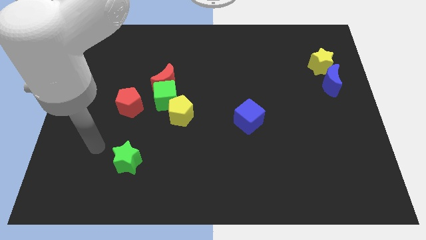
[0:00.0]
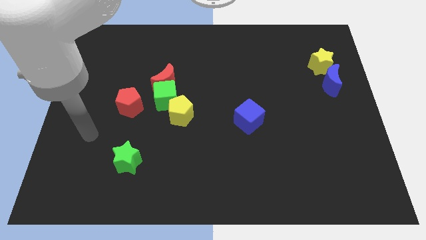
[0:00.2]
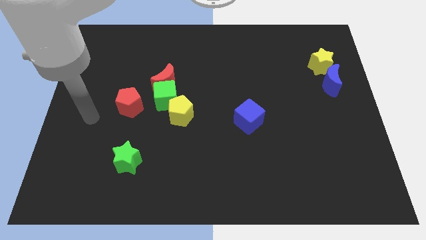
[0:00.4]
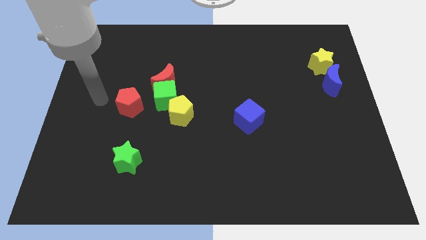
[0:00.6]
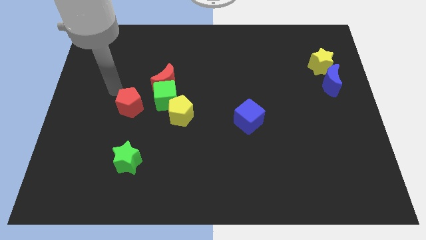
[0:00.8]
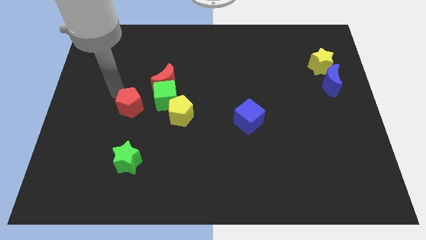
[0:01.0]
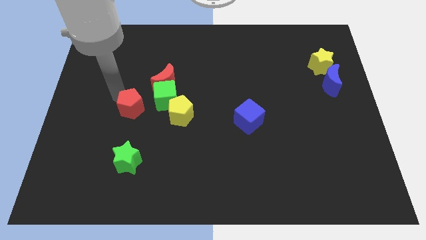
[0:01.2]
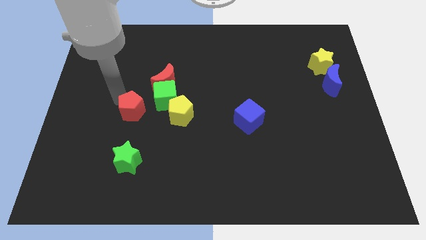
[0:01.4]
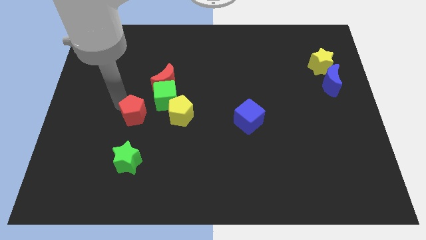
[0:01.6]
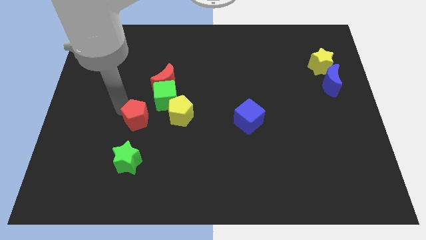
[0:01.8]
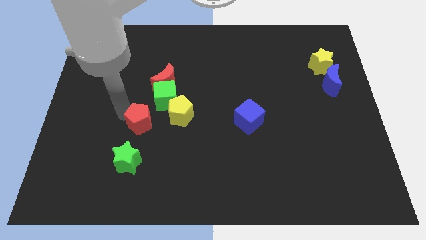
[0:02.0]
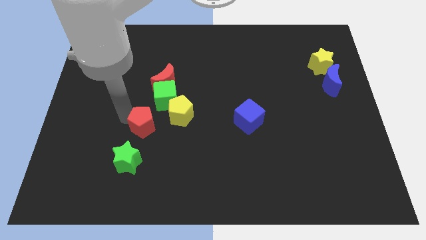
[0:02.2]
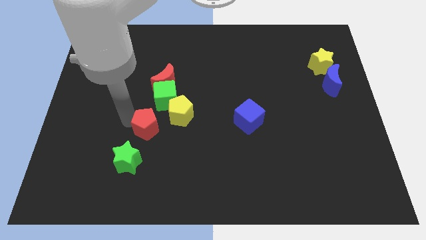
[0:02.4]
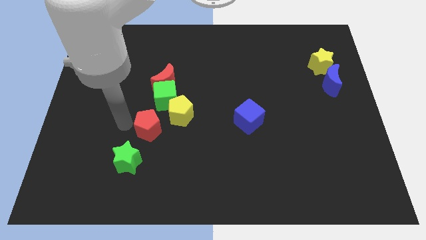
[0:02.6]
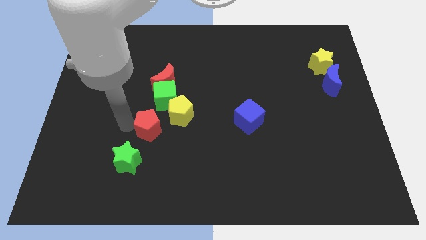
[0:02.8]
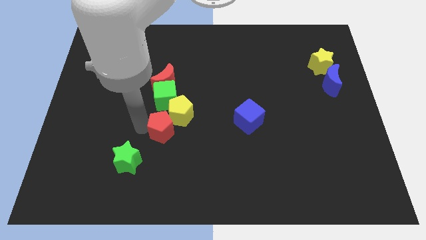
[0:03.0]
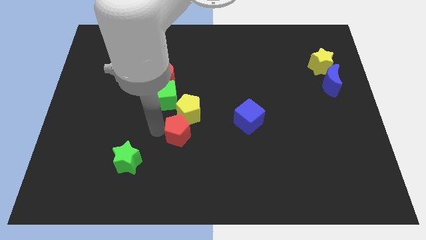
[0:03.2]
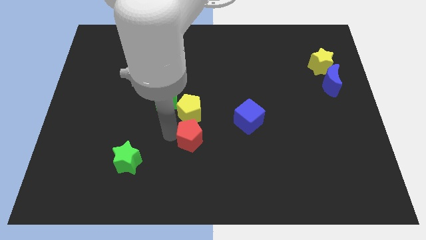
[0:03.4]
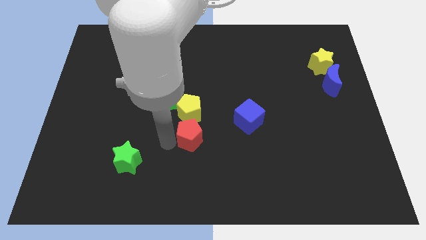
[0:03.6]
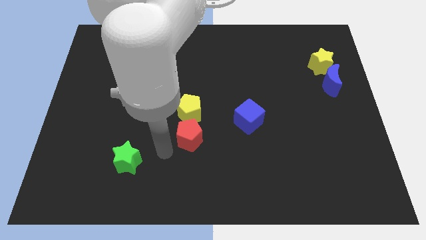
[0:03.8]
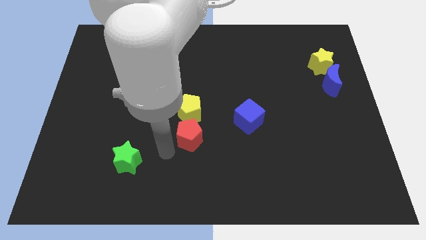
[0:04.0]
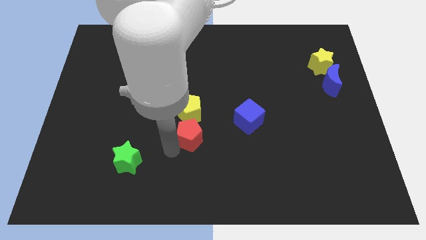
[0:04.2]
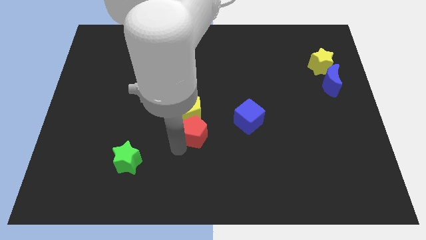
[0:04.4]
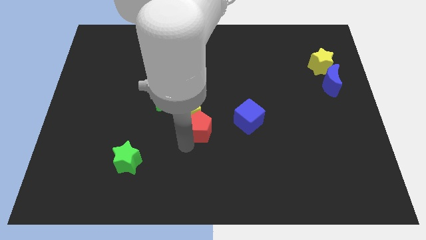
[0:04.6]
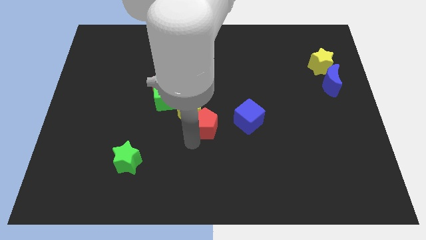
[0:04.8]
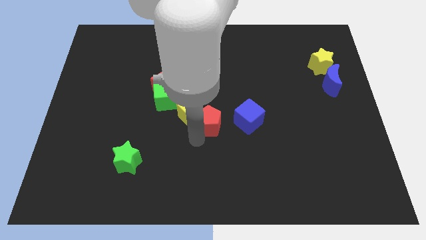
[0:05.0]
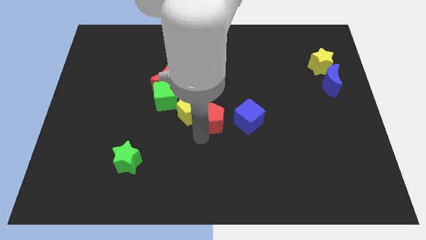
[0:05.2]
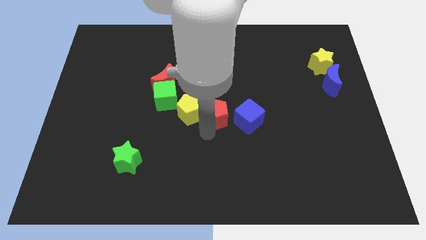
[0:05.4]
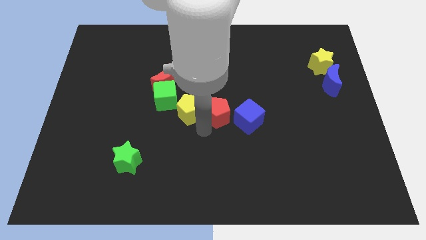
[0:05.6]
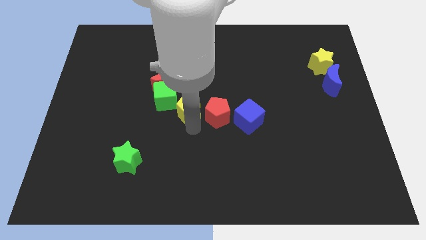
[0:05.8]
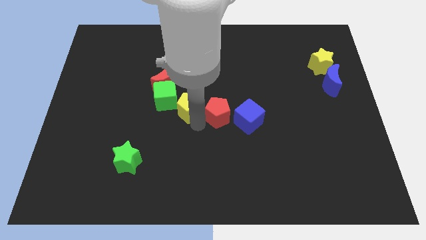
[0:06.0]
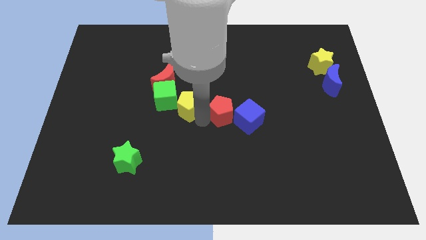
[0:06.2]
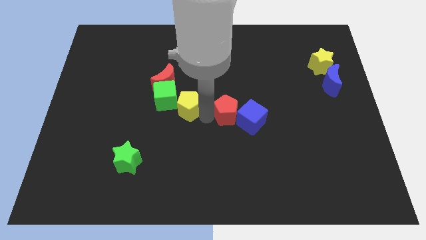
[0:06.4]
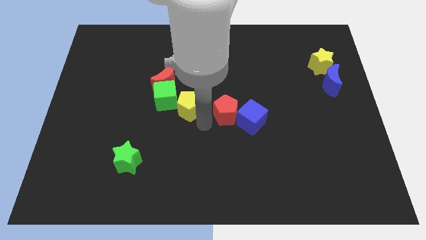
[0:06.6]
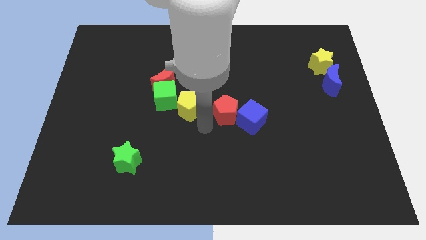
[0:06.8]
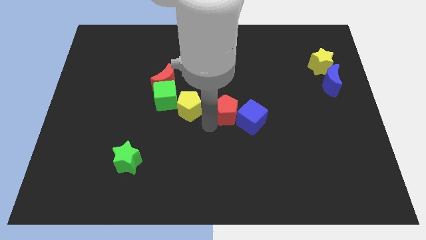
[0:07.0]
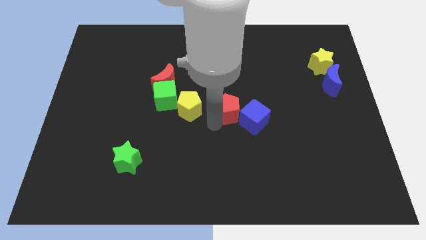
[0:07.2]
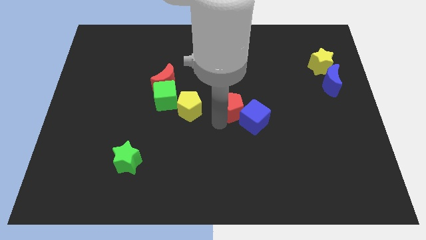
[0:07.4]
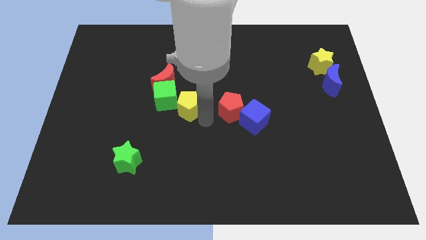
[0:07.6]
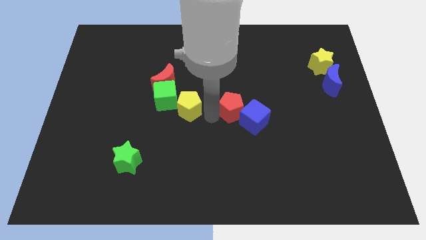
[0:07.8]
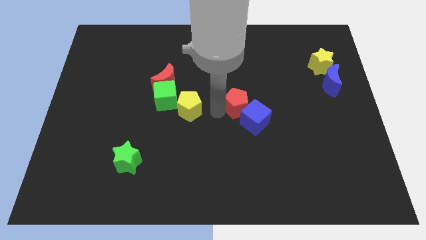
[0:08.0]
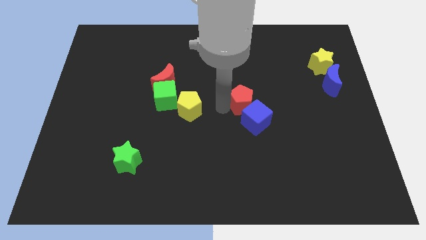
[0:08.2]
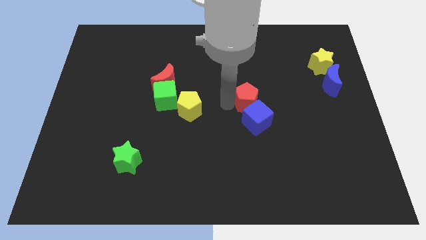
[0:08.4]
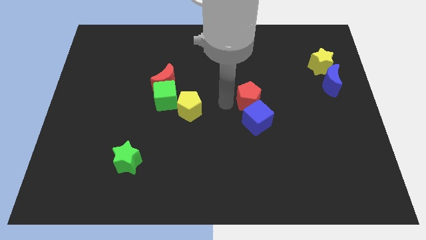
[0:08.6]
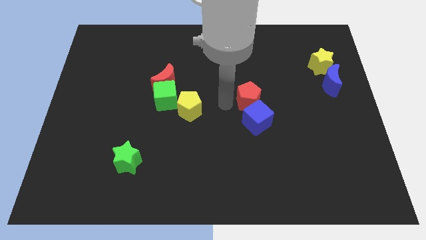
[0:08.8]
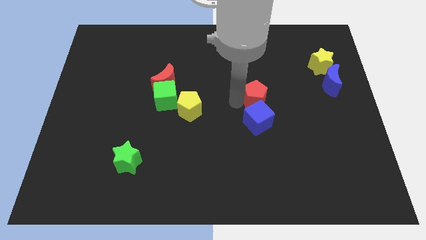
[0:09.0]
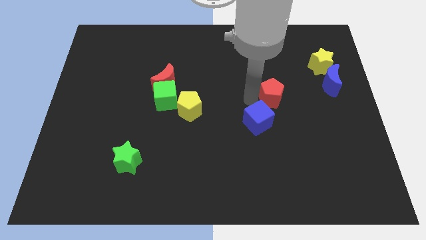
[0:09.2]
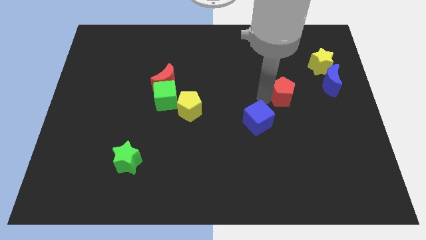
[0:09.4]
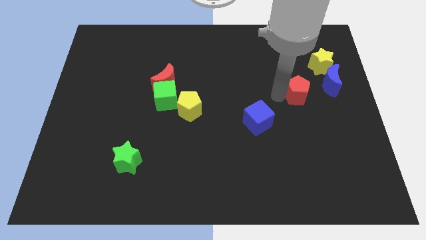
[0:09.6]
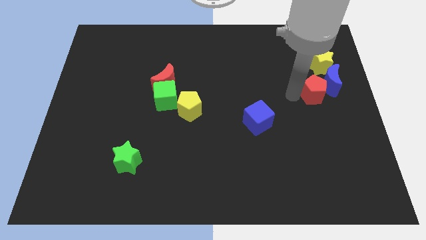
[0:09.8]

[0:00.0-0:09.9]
slide the red pentagon towards the blue moon

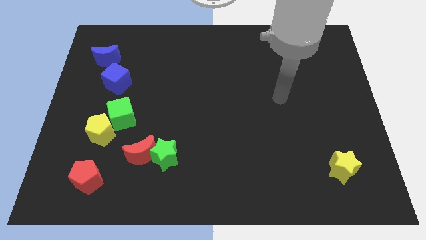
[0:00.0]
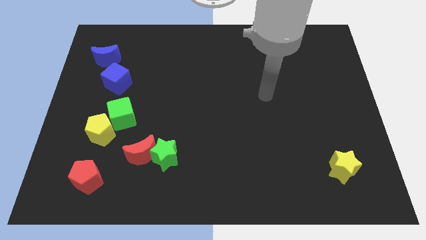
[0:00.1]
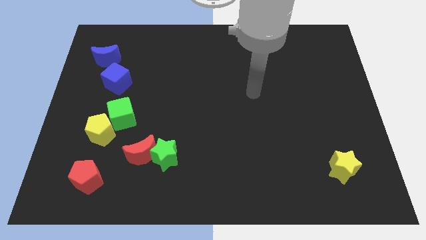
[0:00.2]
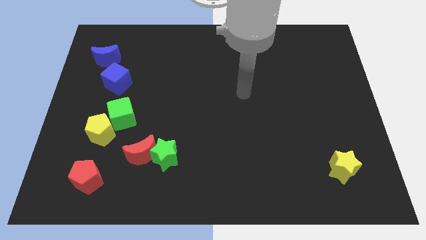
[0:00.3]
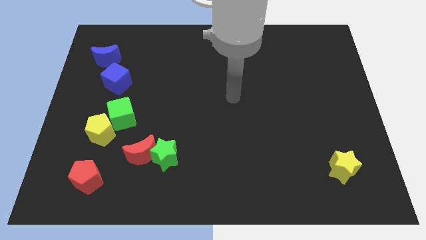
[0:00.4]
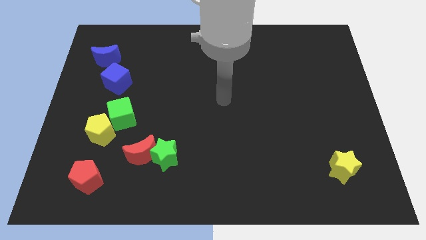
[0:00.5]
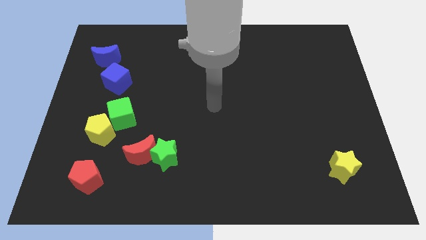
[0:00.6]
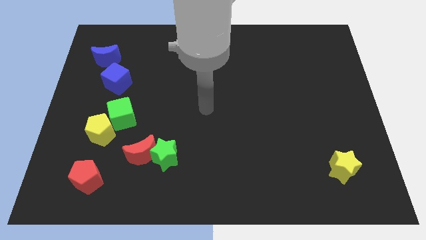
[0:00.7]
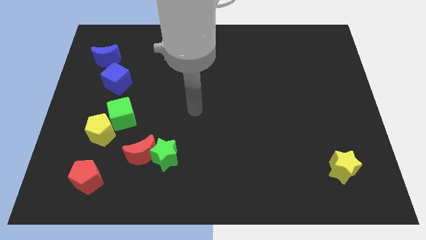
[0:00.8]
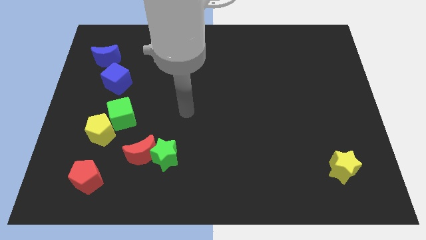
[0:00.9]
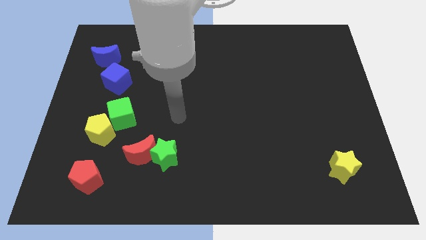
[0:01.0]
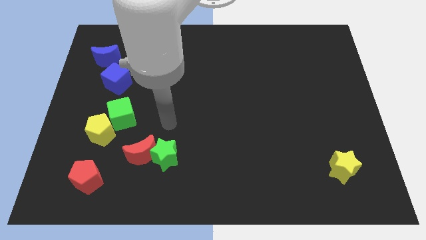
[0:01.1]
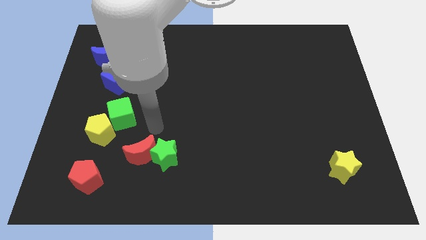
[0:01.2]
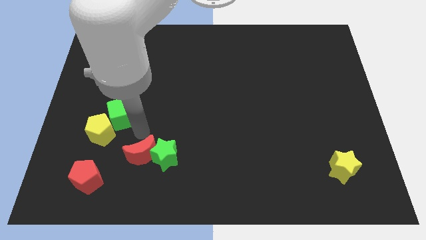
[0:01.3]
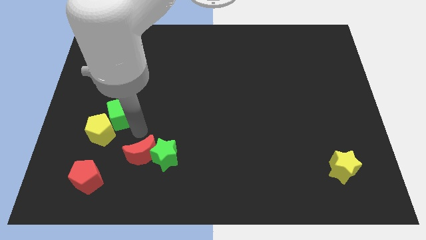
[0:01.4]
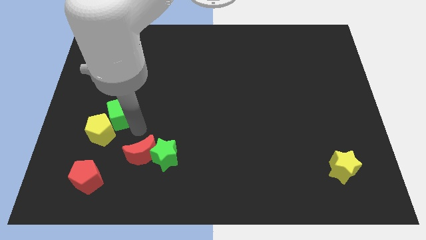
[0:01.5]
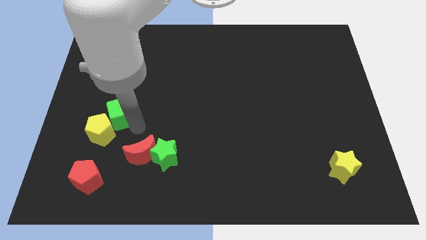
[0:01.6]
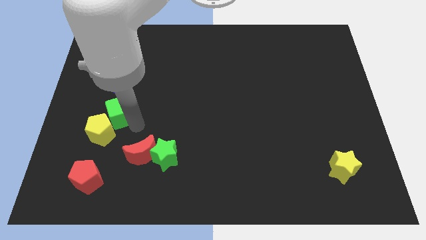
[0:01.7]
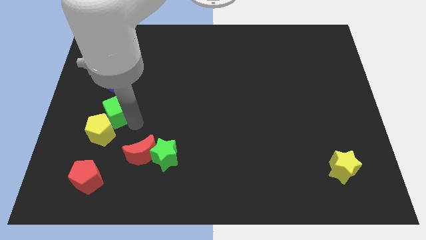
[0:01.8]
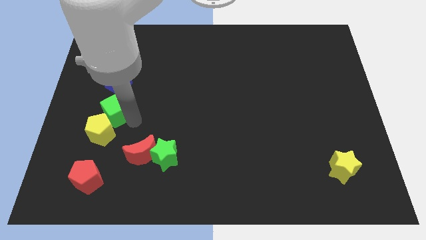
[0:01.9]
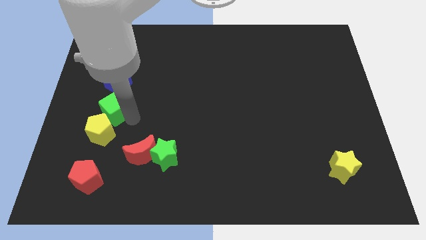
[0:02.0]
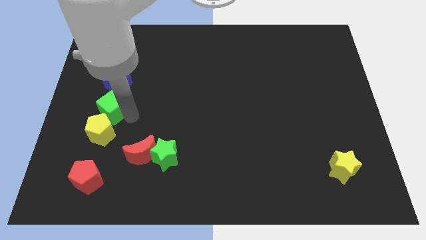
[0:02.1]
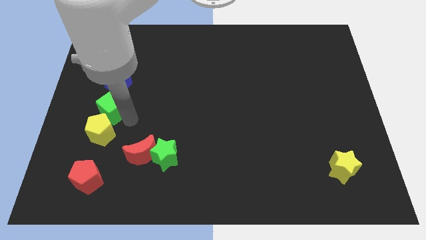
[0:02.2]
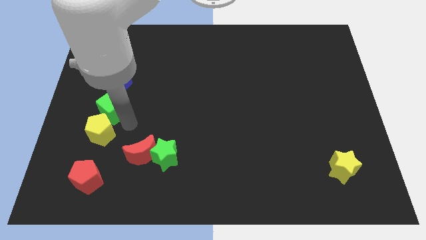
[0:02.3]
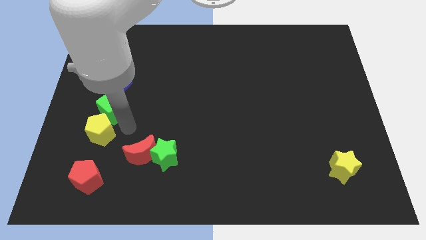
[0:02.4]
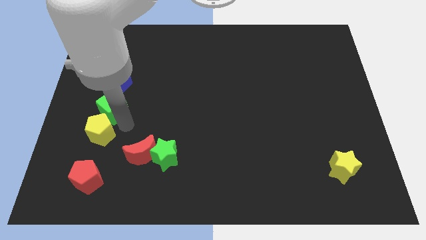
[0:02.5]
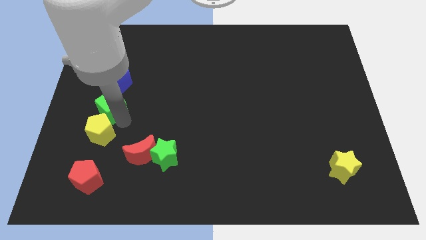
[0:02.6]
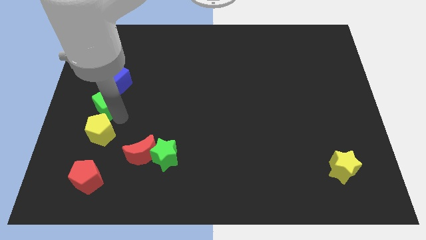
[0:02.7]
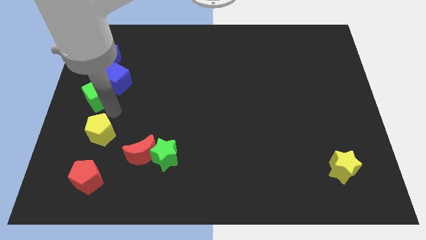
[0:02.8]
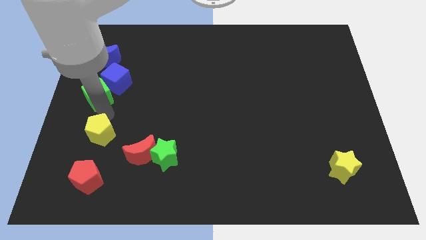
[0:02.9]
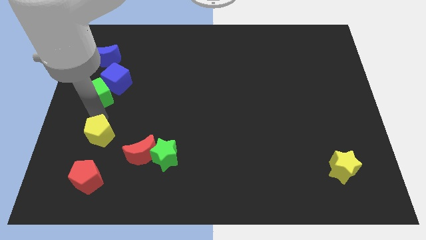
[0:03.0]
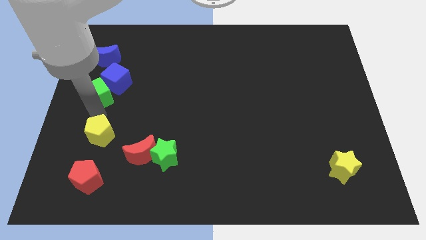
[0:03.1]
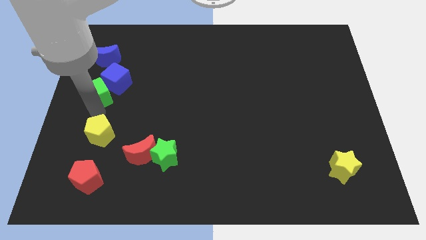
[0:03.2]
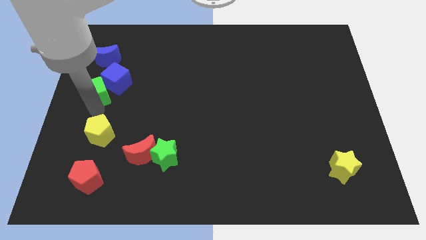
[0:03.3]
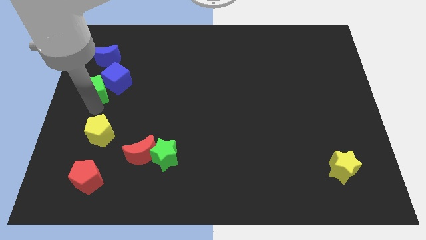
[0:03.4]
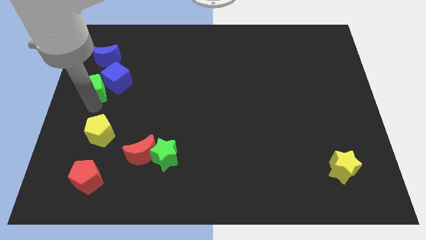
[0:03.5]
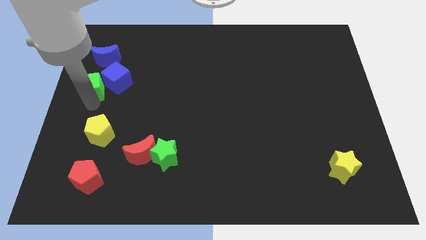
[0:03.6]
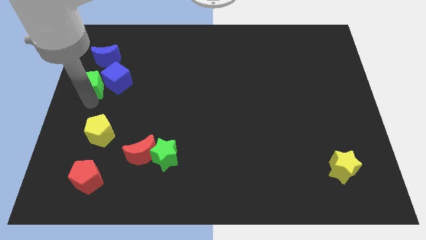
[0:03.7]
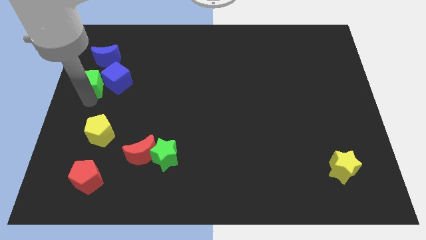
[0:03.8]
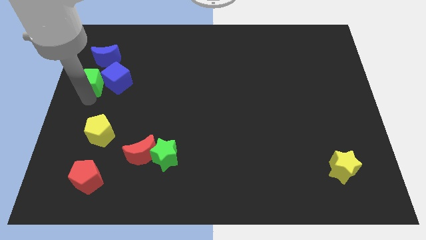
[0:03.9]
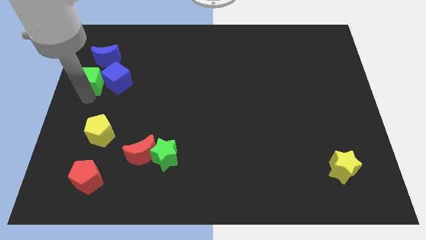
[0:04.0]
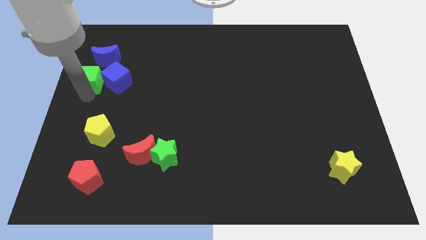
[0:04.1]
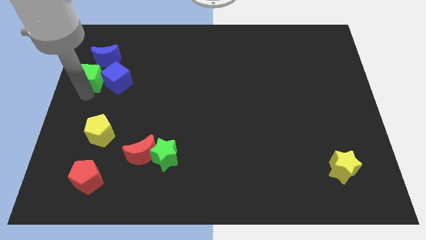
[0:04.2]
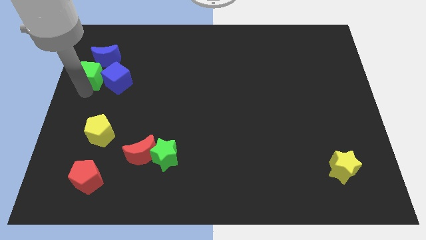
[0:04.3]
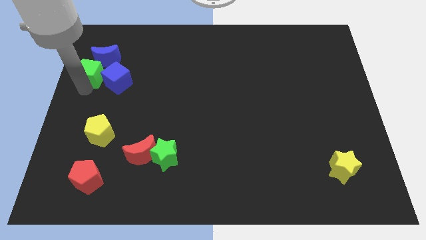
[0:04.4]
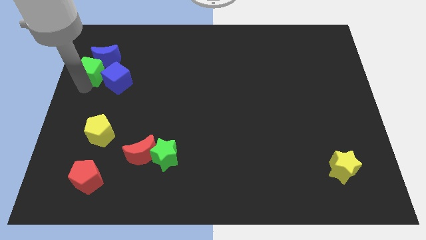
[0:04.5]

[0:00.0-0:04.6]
push the green cube next to the blue moon
